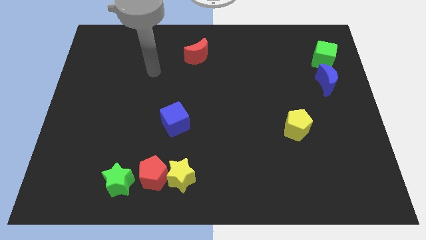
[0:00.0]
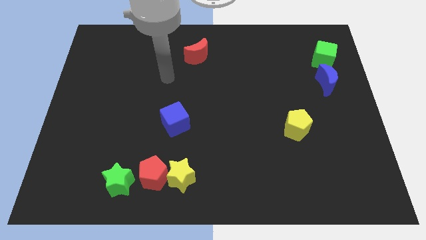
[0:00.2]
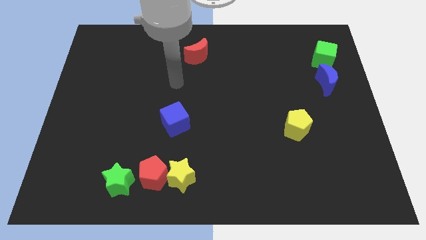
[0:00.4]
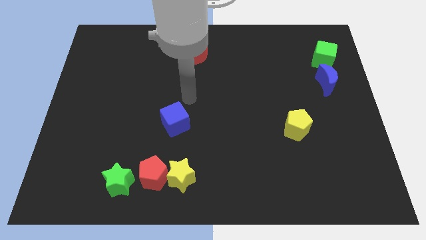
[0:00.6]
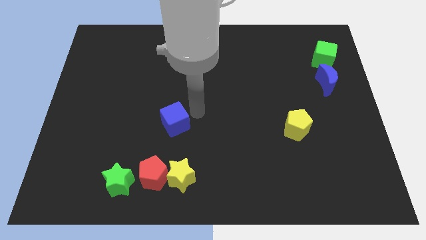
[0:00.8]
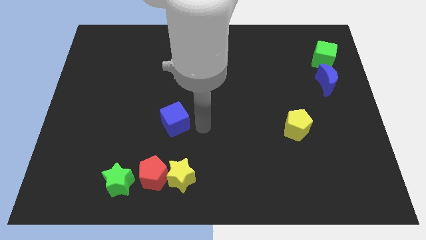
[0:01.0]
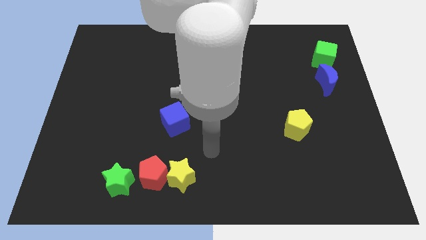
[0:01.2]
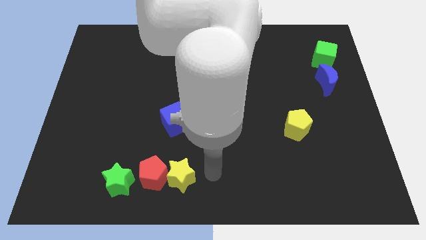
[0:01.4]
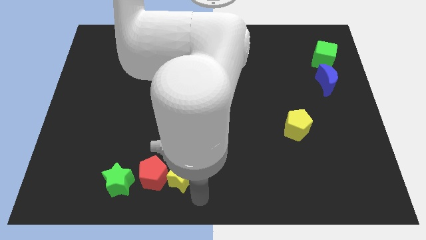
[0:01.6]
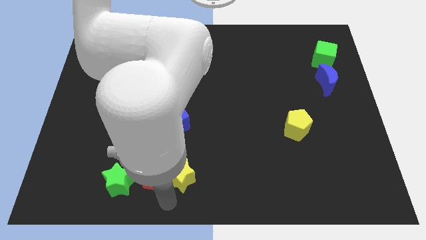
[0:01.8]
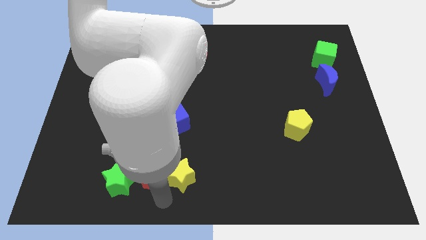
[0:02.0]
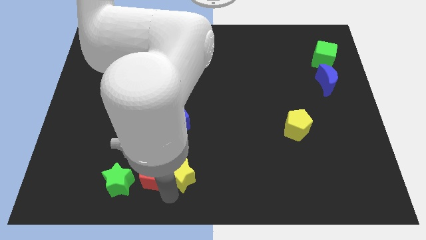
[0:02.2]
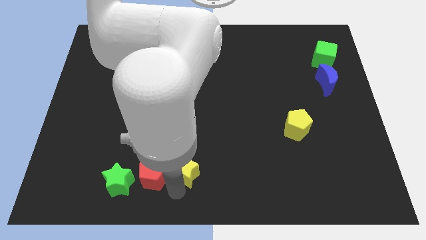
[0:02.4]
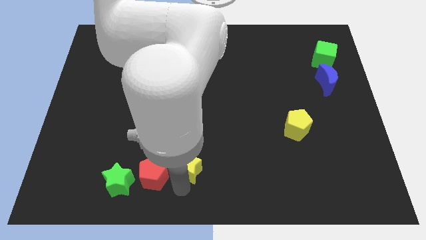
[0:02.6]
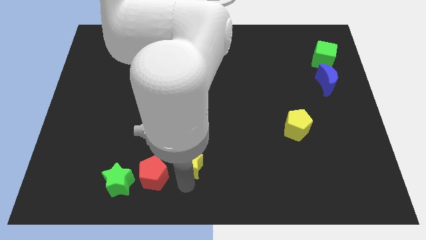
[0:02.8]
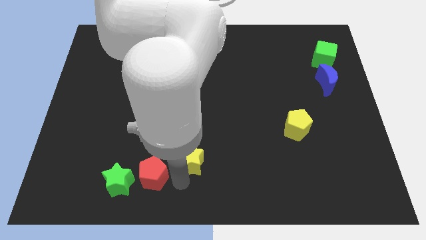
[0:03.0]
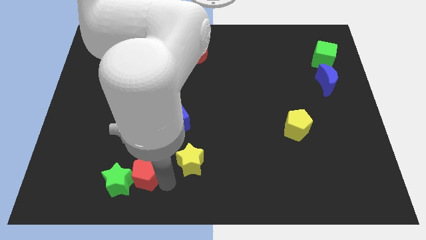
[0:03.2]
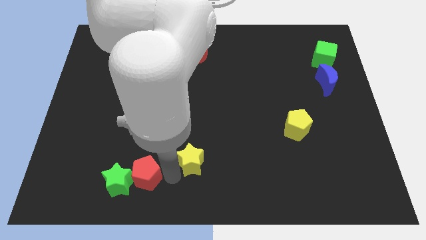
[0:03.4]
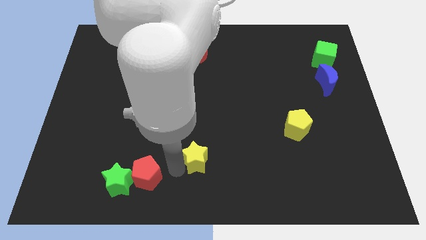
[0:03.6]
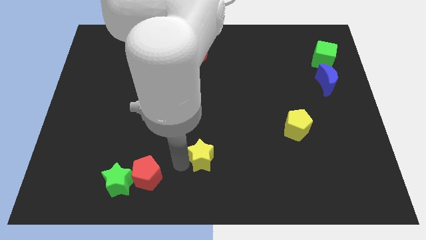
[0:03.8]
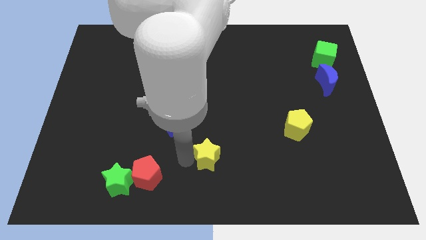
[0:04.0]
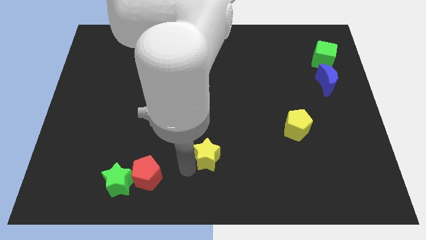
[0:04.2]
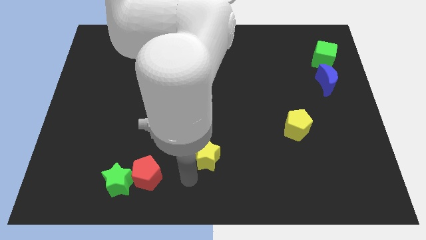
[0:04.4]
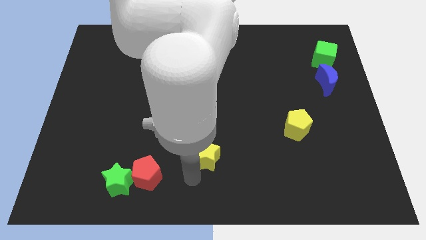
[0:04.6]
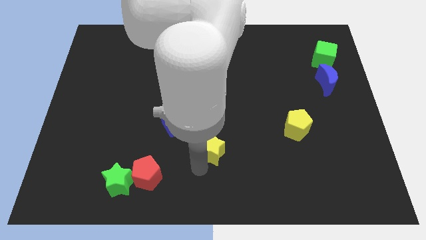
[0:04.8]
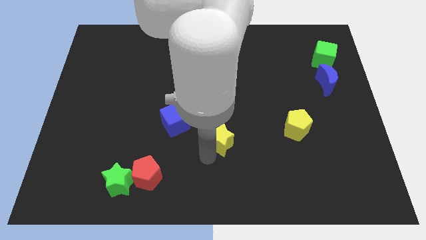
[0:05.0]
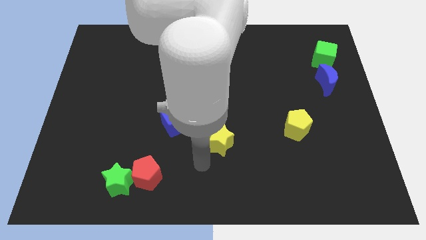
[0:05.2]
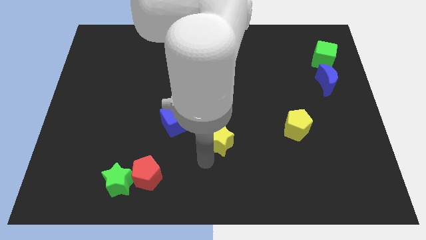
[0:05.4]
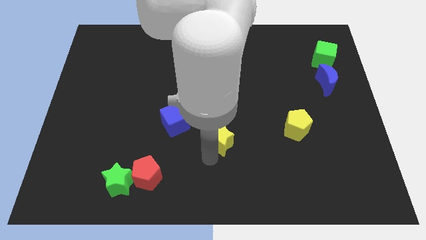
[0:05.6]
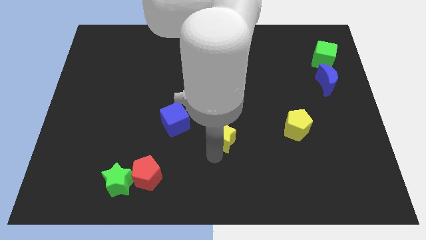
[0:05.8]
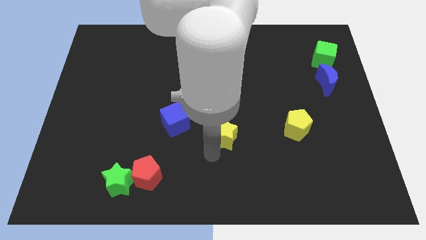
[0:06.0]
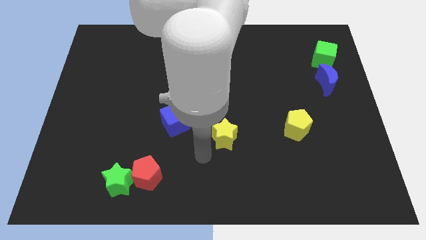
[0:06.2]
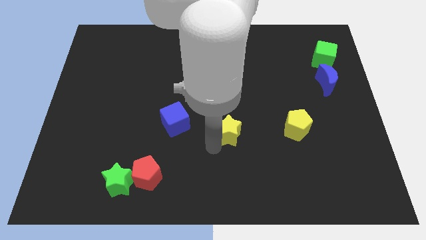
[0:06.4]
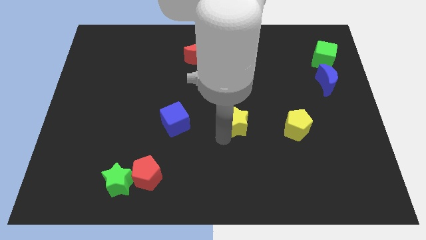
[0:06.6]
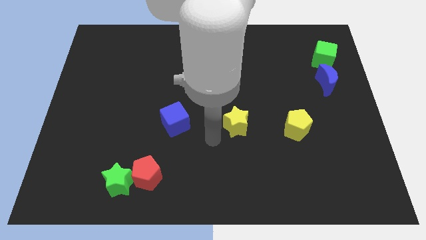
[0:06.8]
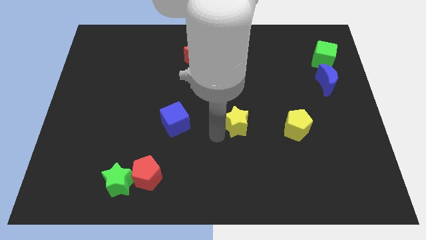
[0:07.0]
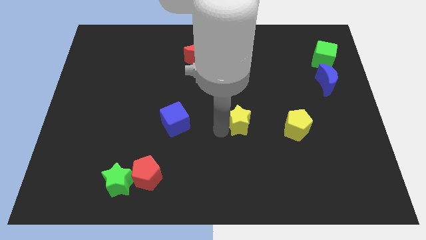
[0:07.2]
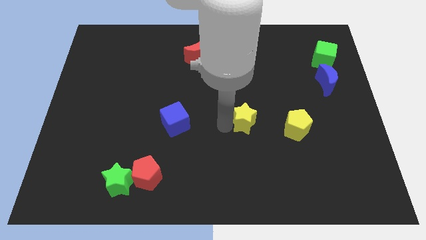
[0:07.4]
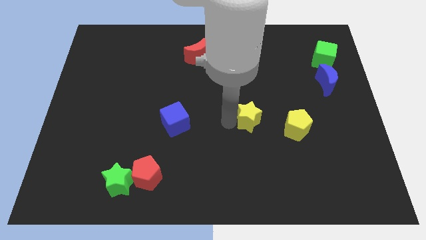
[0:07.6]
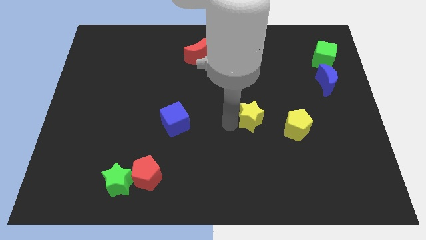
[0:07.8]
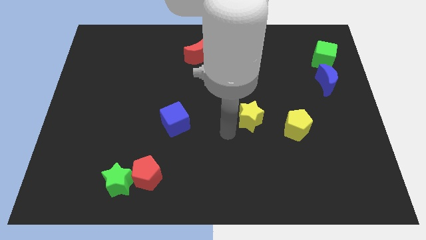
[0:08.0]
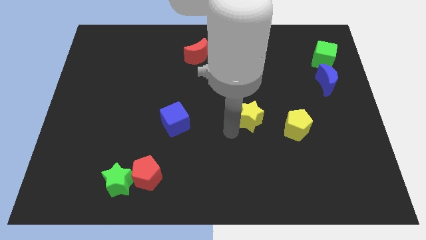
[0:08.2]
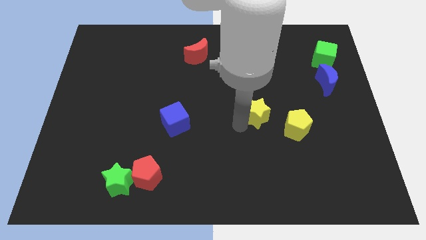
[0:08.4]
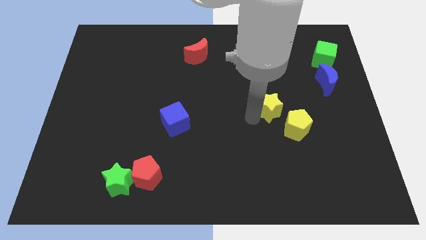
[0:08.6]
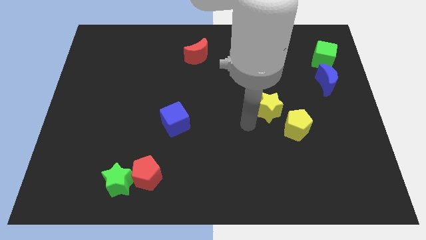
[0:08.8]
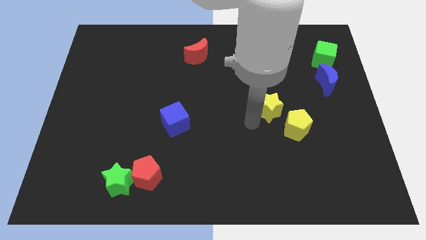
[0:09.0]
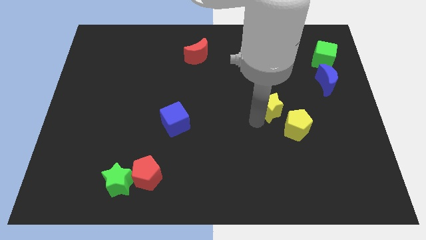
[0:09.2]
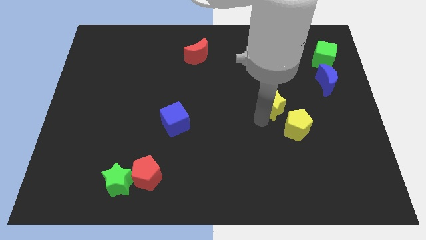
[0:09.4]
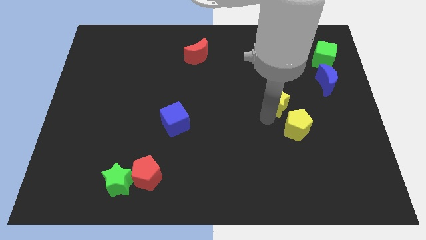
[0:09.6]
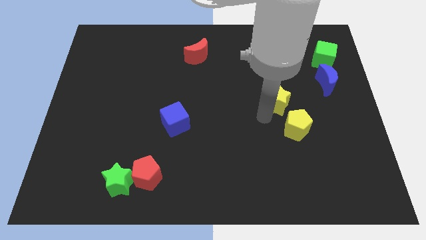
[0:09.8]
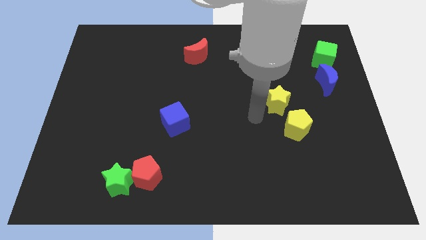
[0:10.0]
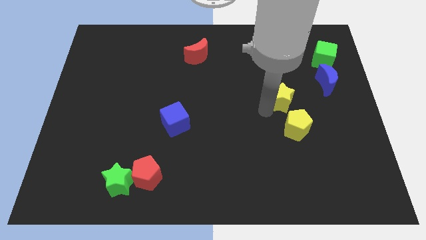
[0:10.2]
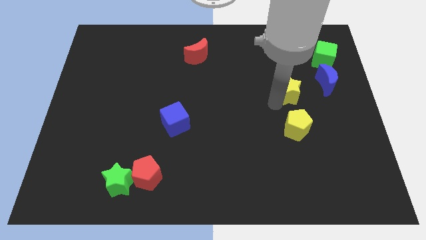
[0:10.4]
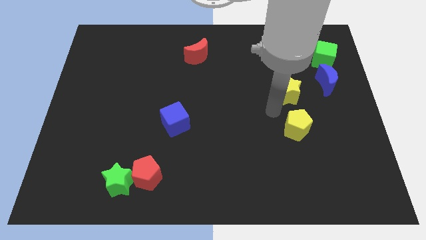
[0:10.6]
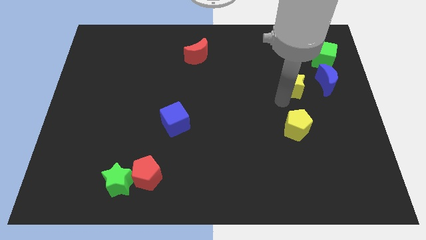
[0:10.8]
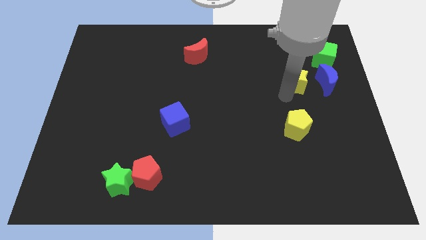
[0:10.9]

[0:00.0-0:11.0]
slide the yellow star diagonally down and to the left of the green cube
